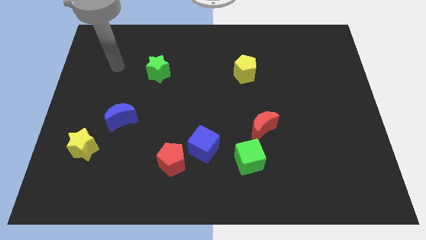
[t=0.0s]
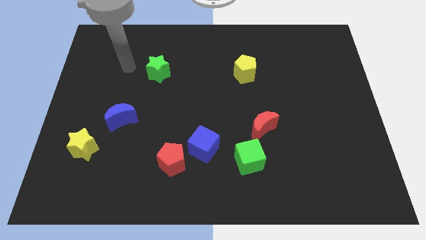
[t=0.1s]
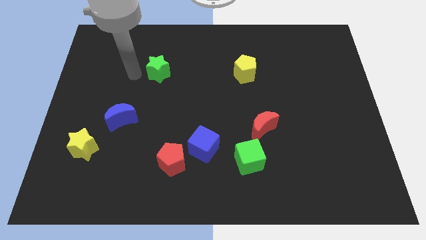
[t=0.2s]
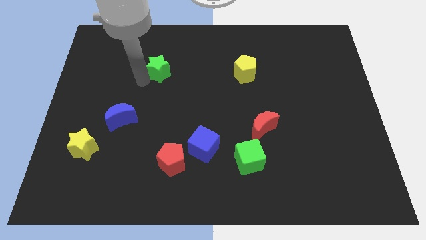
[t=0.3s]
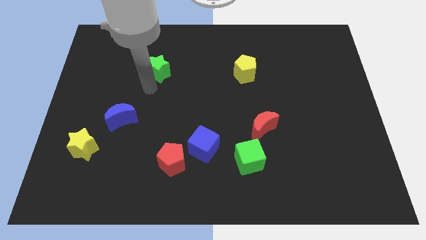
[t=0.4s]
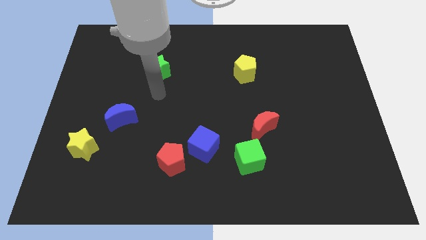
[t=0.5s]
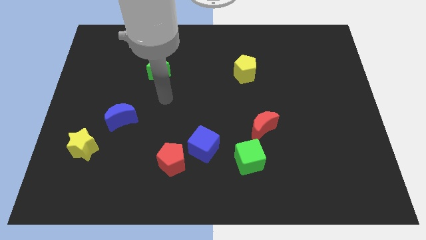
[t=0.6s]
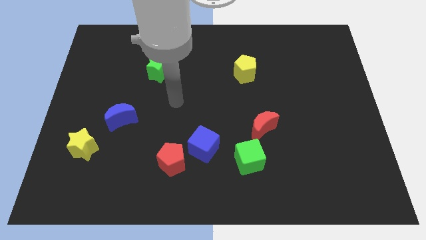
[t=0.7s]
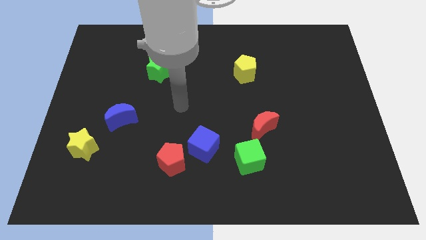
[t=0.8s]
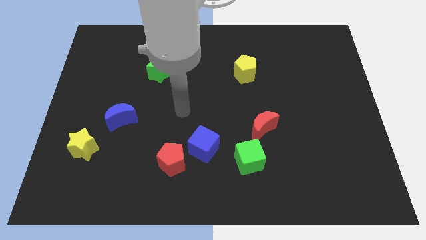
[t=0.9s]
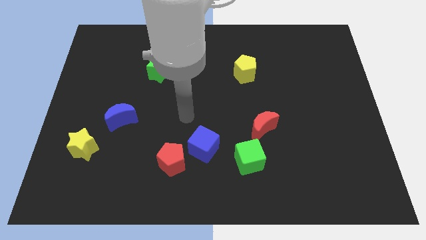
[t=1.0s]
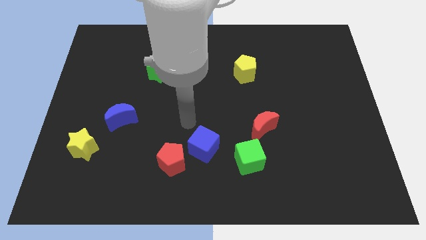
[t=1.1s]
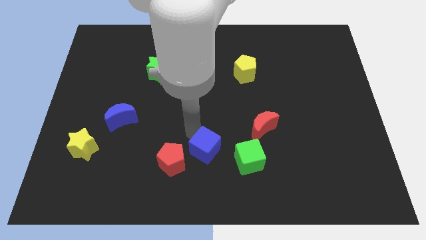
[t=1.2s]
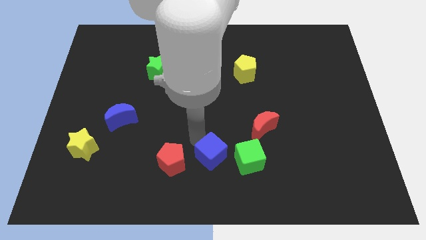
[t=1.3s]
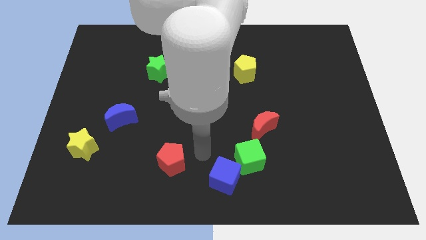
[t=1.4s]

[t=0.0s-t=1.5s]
move the red pentagon away from the blue cube

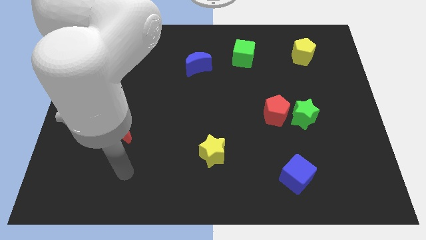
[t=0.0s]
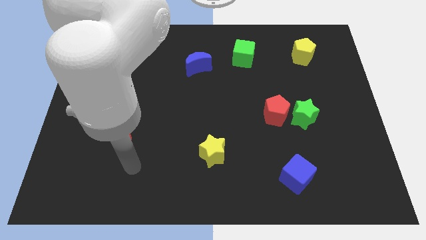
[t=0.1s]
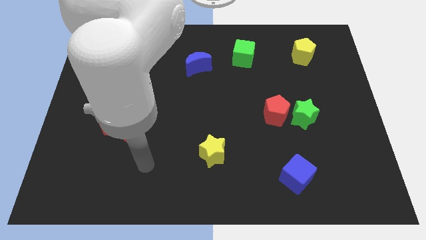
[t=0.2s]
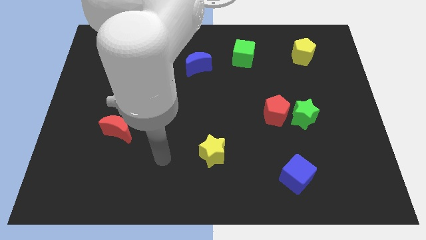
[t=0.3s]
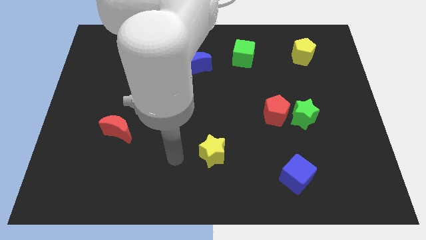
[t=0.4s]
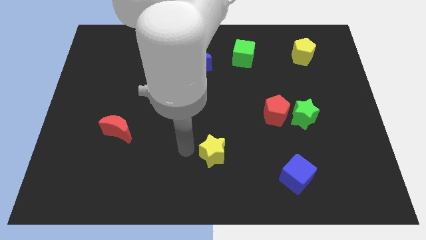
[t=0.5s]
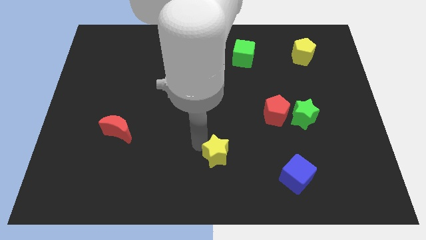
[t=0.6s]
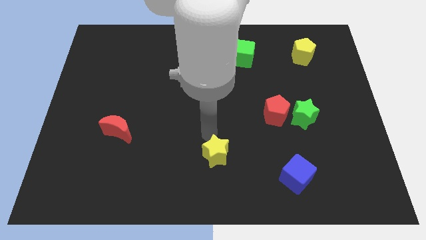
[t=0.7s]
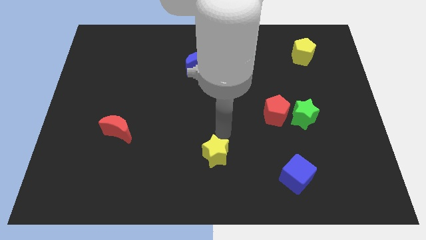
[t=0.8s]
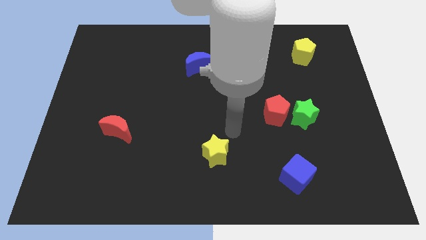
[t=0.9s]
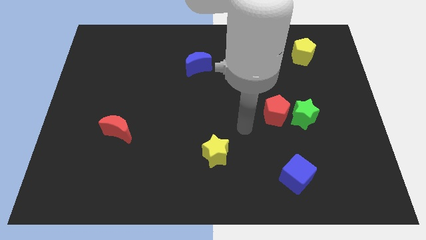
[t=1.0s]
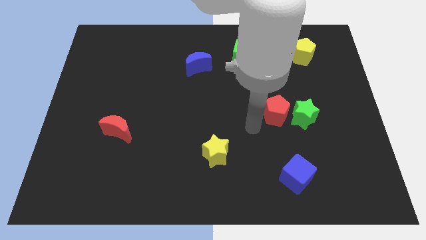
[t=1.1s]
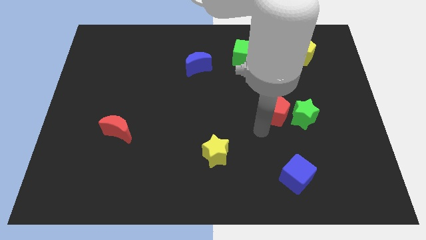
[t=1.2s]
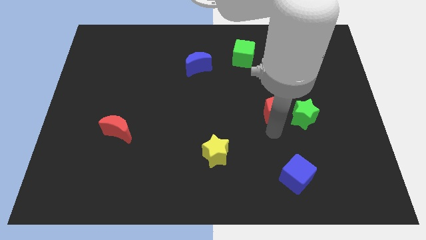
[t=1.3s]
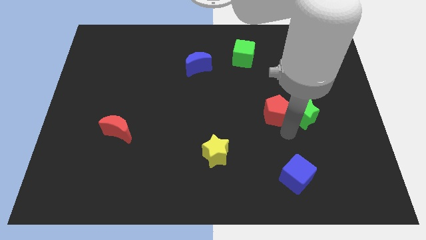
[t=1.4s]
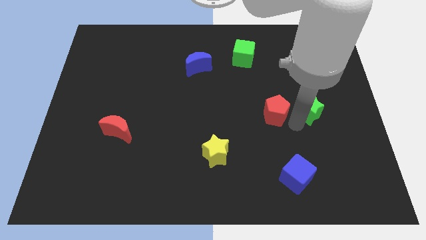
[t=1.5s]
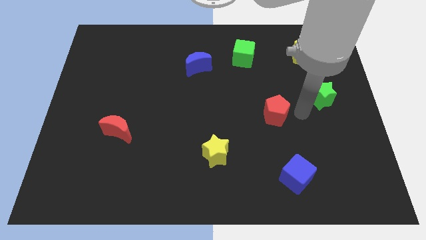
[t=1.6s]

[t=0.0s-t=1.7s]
pull the red pentagon apart from the green star

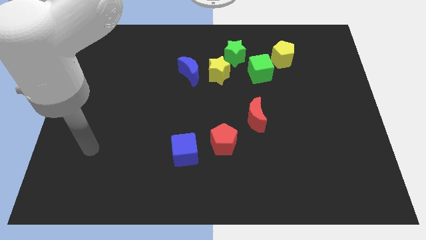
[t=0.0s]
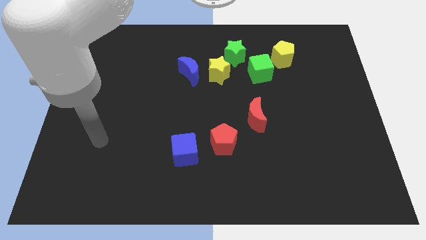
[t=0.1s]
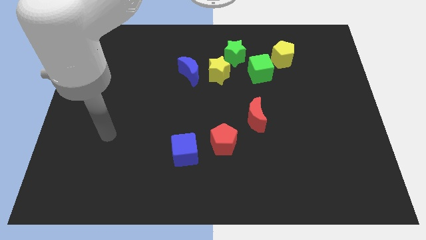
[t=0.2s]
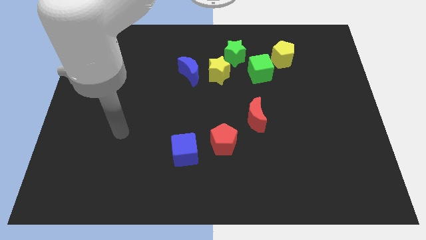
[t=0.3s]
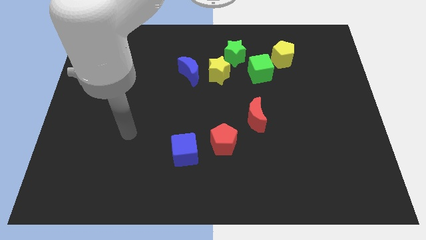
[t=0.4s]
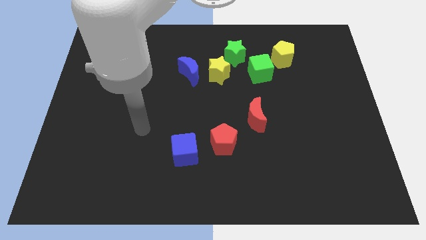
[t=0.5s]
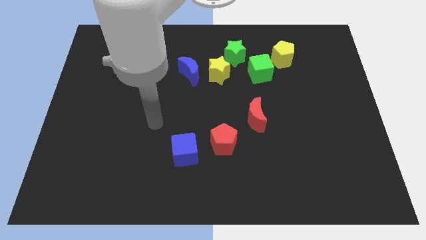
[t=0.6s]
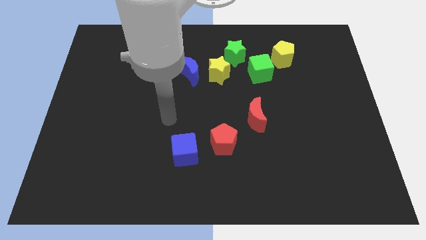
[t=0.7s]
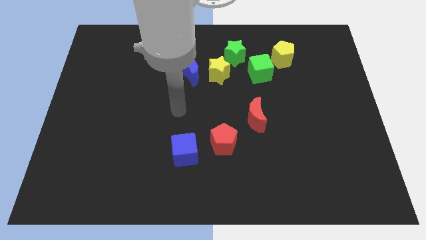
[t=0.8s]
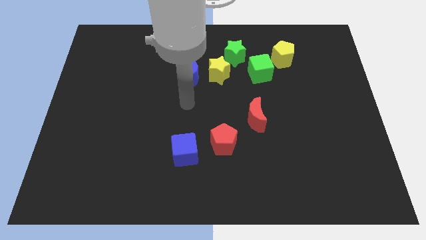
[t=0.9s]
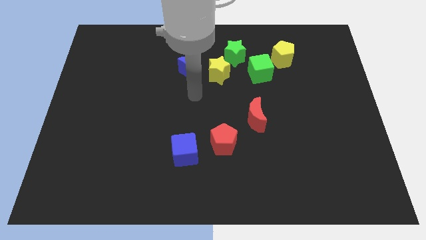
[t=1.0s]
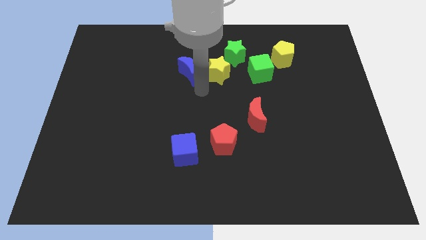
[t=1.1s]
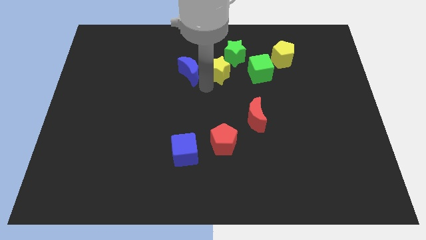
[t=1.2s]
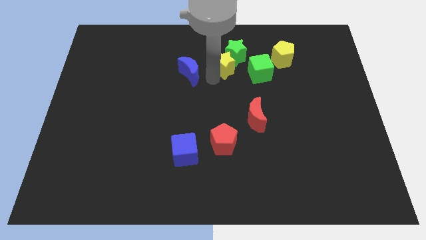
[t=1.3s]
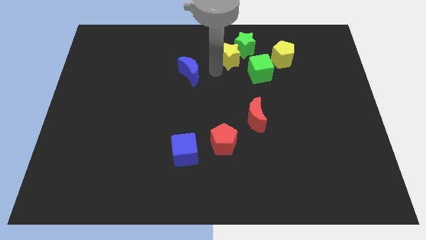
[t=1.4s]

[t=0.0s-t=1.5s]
separate the blue moon from the yellow star

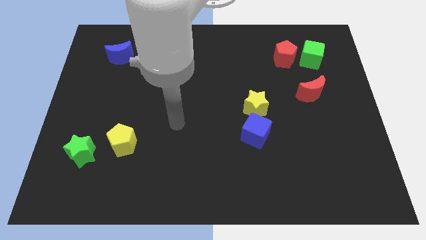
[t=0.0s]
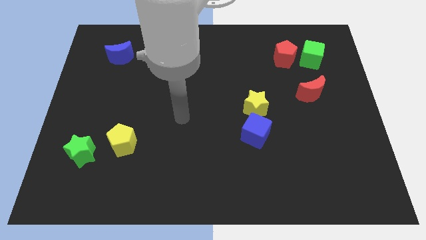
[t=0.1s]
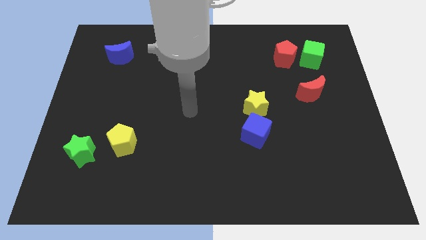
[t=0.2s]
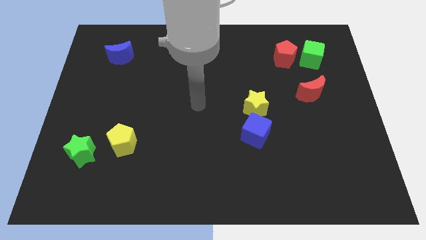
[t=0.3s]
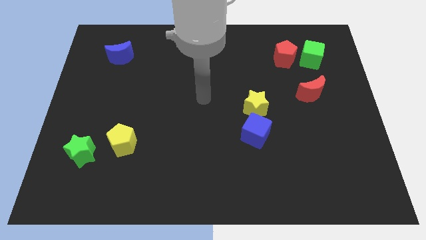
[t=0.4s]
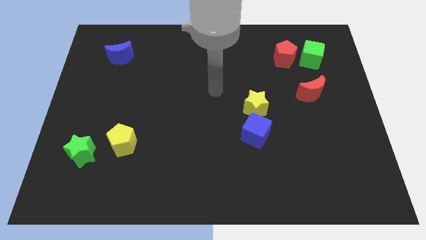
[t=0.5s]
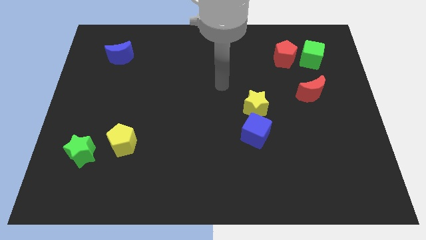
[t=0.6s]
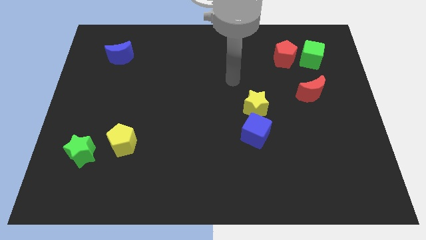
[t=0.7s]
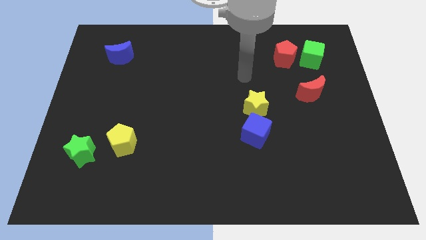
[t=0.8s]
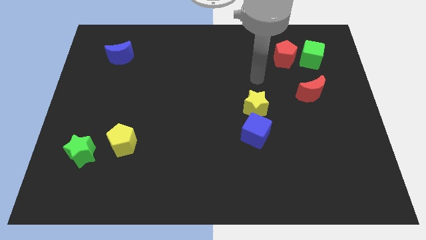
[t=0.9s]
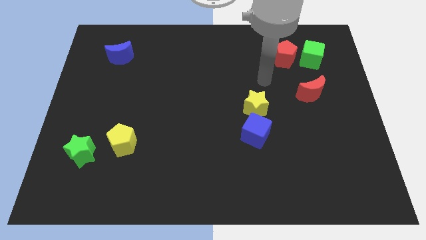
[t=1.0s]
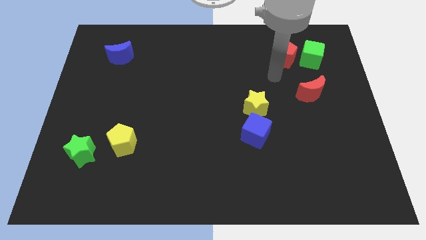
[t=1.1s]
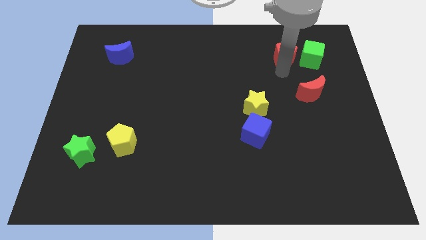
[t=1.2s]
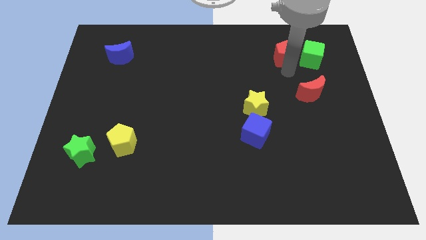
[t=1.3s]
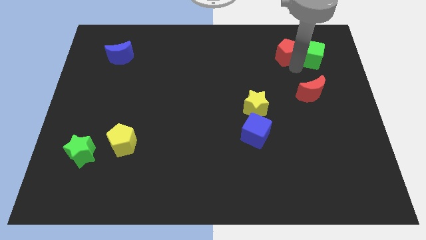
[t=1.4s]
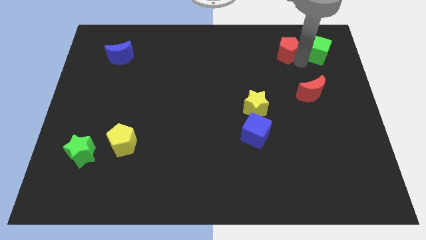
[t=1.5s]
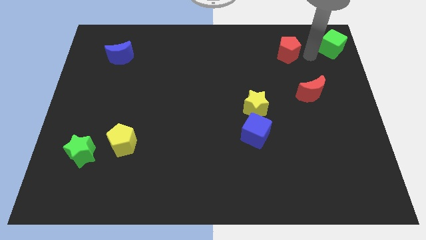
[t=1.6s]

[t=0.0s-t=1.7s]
pull the red pentagon apart from the green cube

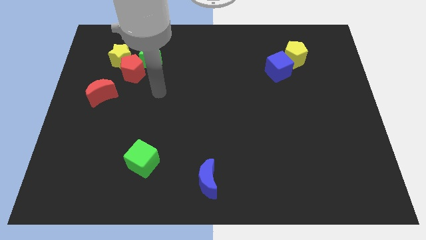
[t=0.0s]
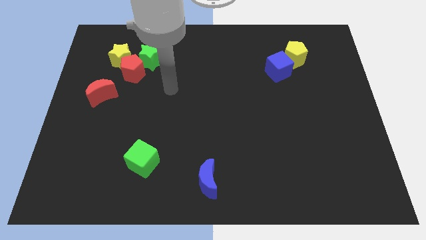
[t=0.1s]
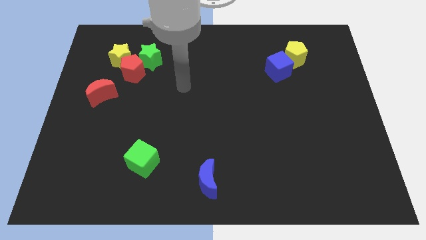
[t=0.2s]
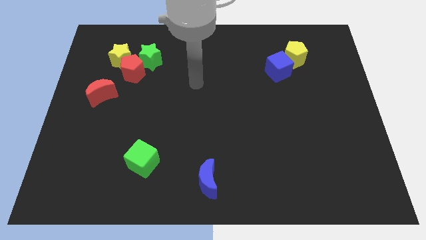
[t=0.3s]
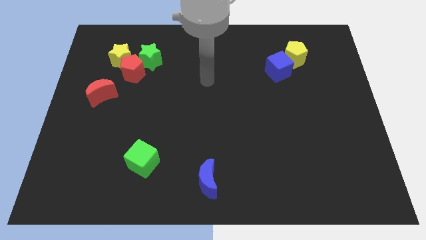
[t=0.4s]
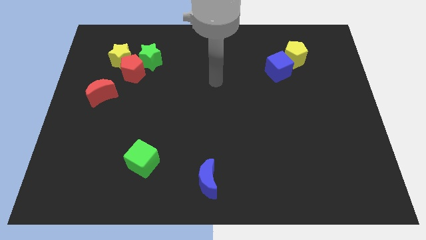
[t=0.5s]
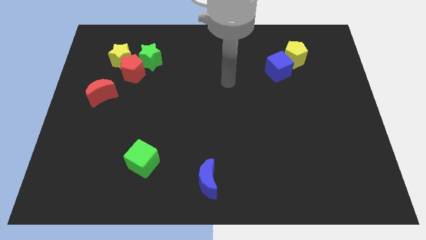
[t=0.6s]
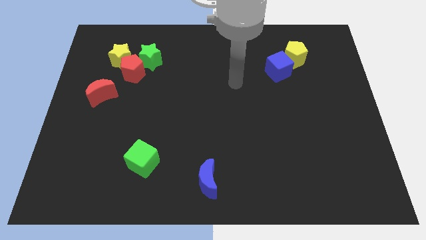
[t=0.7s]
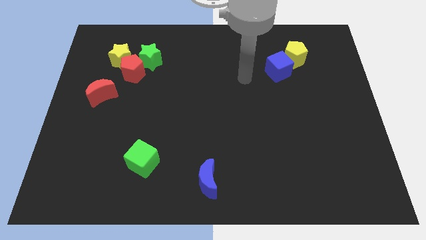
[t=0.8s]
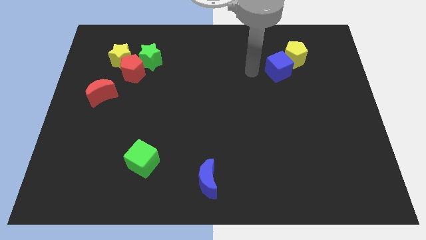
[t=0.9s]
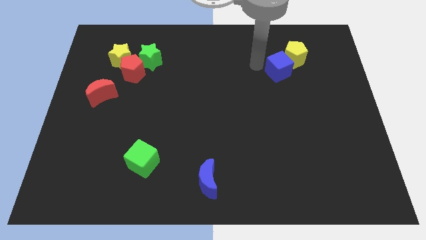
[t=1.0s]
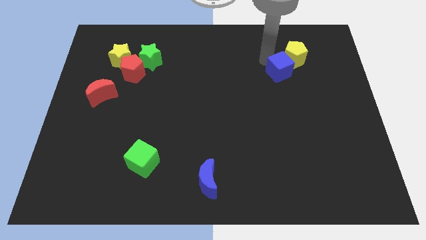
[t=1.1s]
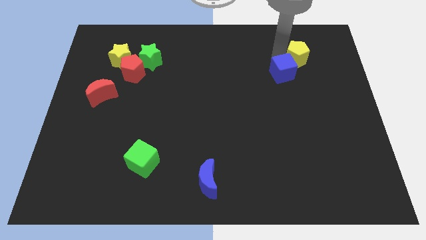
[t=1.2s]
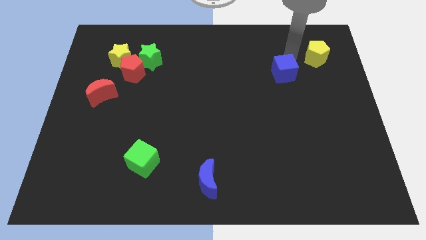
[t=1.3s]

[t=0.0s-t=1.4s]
move the blue cube away from the yellow pentagon

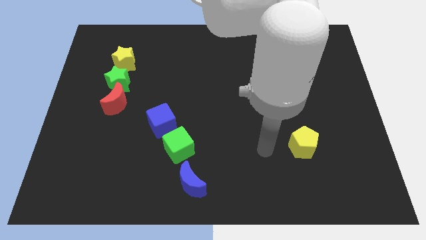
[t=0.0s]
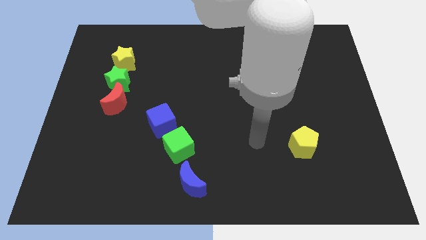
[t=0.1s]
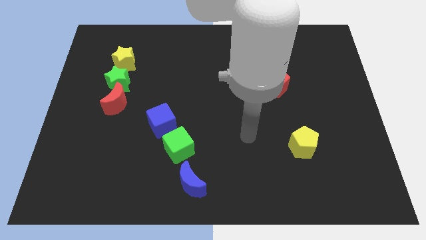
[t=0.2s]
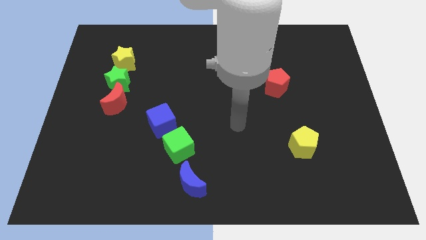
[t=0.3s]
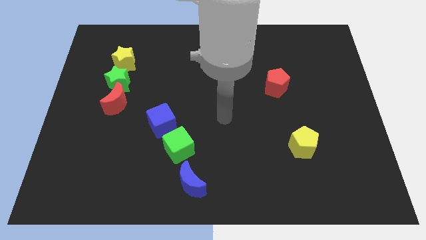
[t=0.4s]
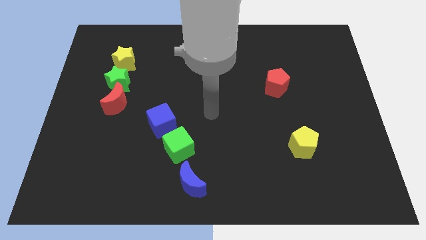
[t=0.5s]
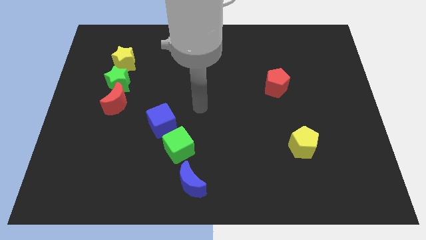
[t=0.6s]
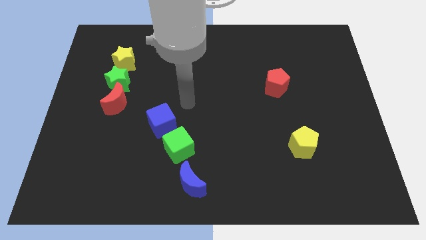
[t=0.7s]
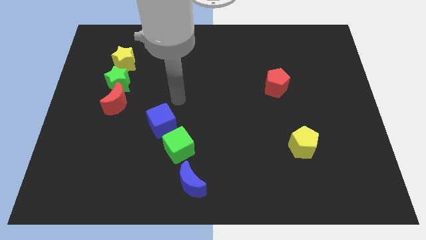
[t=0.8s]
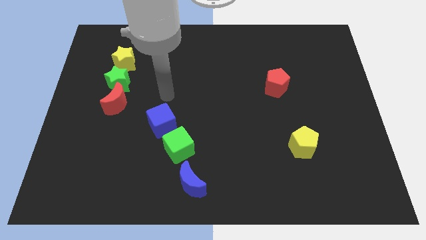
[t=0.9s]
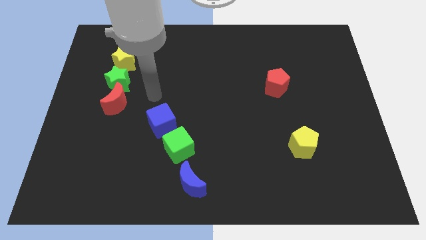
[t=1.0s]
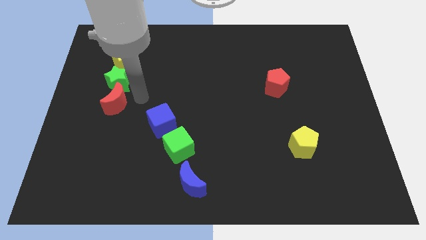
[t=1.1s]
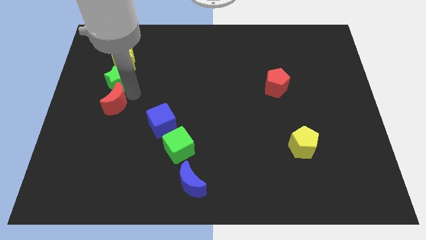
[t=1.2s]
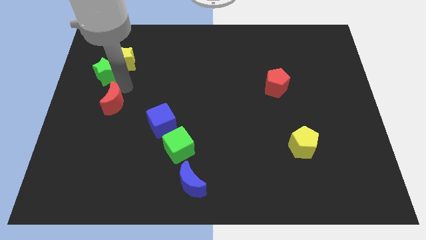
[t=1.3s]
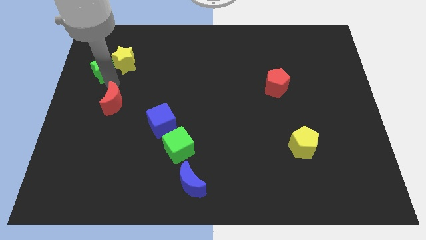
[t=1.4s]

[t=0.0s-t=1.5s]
pull the red moon apart from the green star
